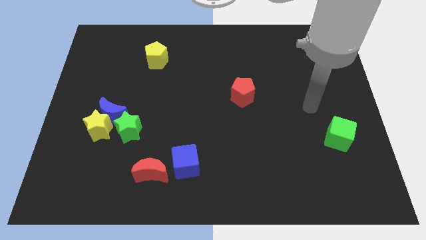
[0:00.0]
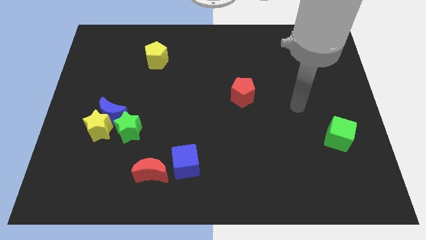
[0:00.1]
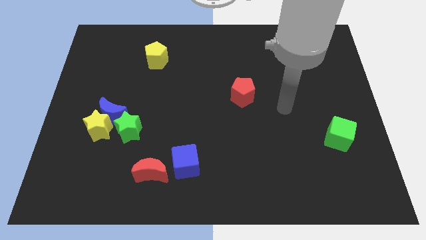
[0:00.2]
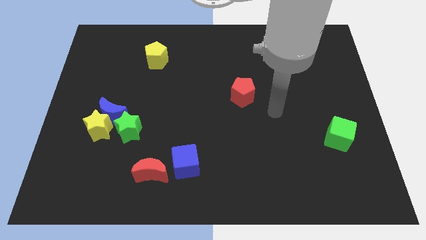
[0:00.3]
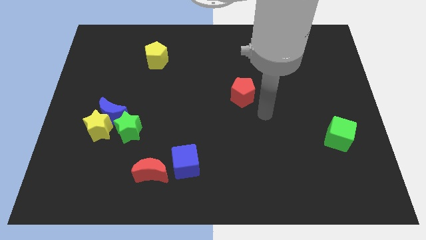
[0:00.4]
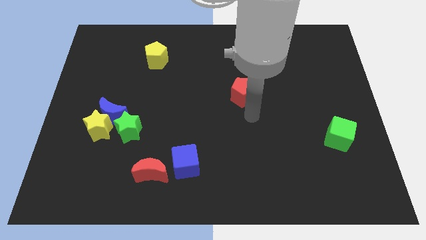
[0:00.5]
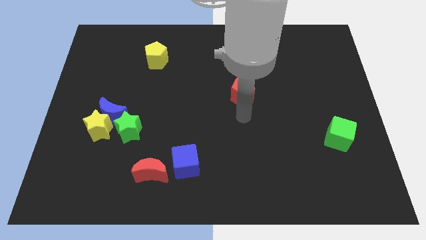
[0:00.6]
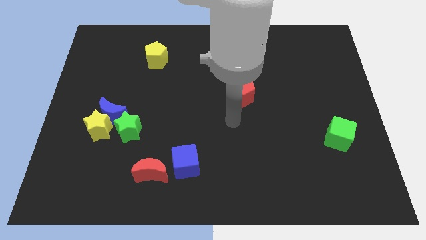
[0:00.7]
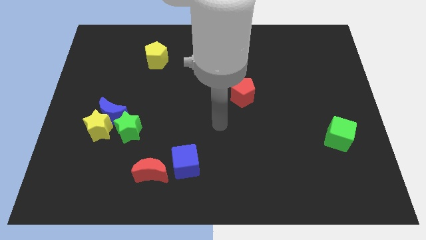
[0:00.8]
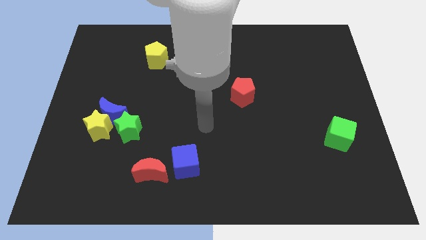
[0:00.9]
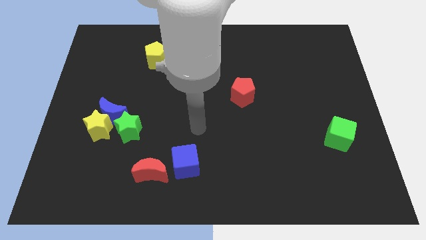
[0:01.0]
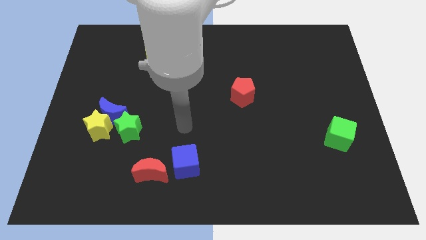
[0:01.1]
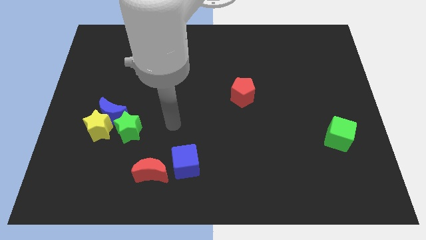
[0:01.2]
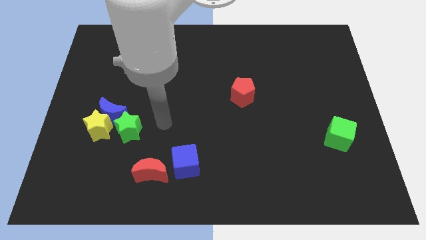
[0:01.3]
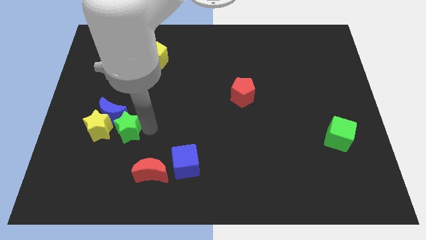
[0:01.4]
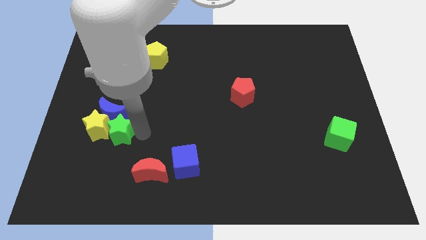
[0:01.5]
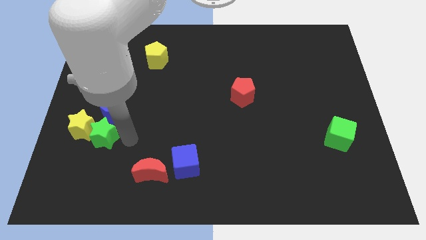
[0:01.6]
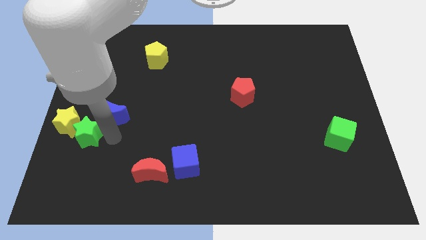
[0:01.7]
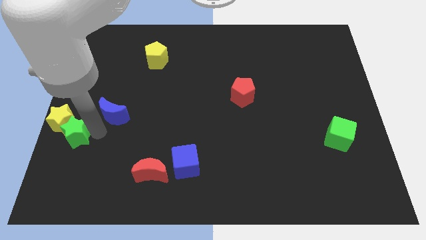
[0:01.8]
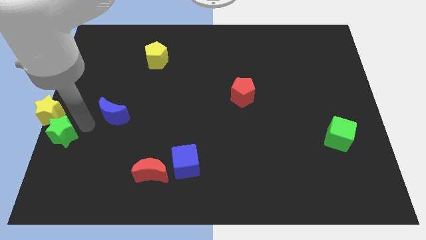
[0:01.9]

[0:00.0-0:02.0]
separate the blue moon from the yellow star and green star

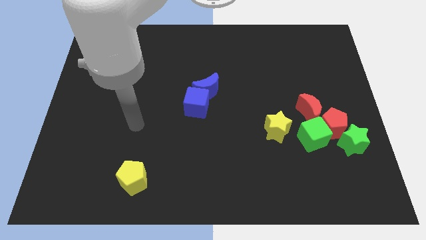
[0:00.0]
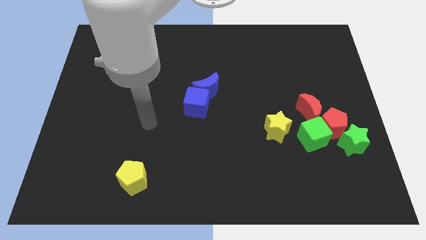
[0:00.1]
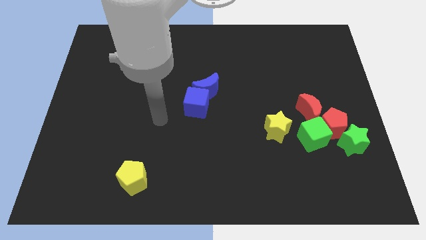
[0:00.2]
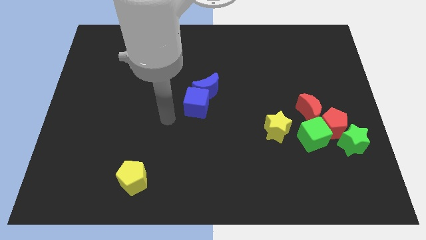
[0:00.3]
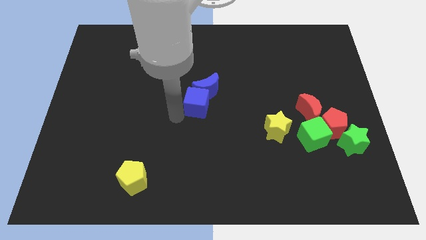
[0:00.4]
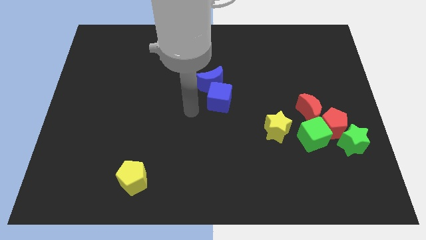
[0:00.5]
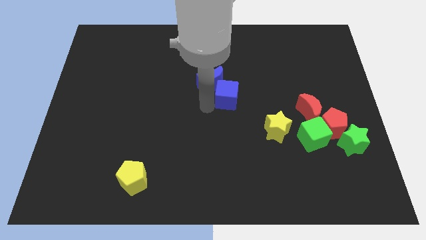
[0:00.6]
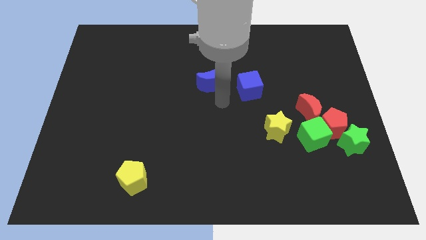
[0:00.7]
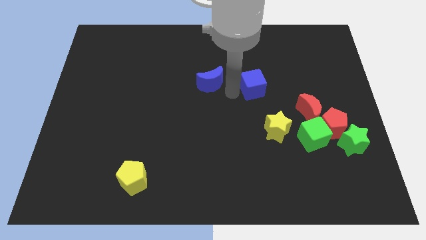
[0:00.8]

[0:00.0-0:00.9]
pull the blue moon apart from the blue cube

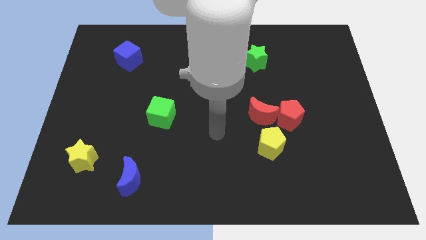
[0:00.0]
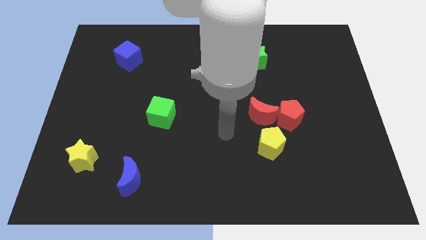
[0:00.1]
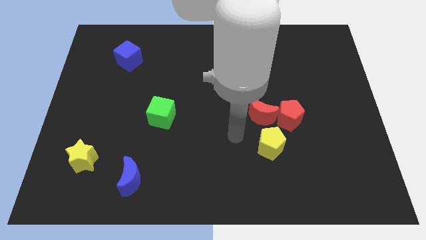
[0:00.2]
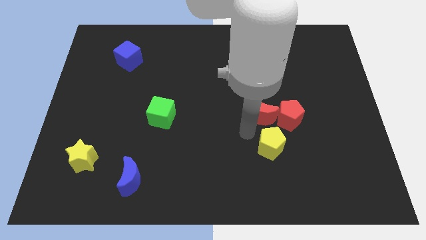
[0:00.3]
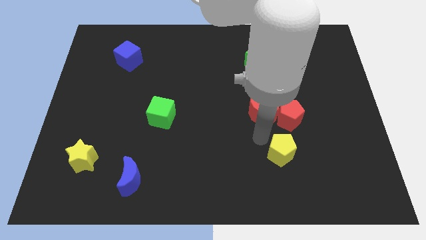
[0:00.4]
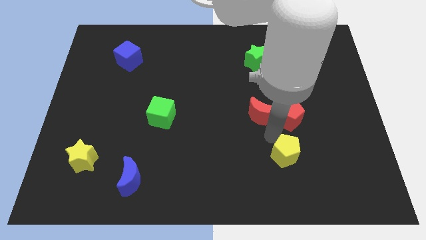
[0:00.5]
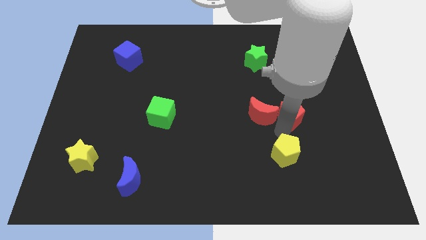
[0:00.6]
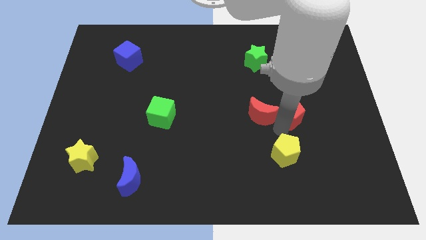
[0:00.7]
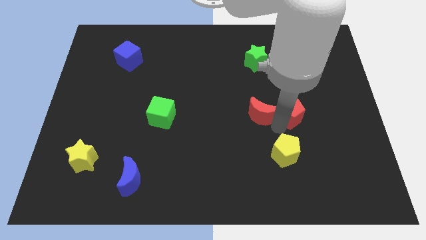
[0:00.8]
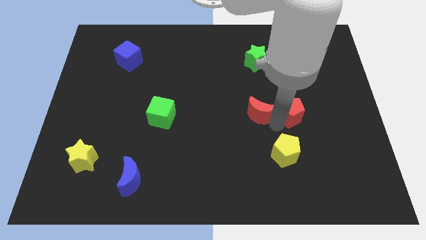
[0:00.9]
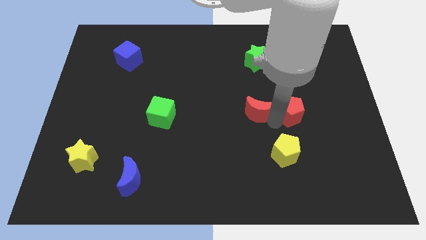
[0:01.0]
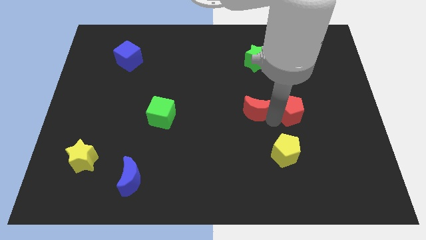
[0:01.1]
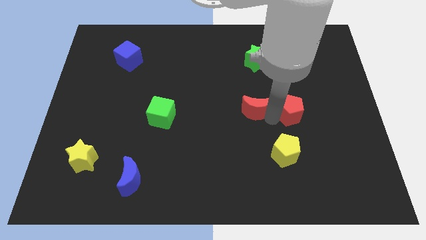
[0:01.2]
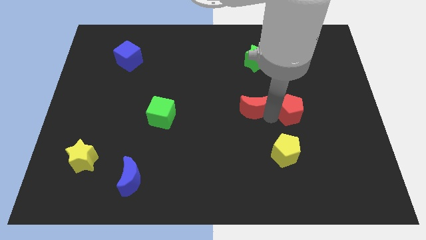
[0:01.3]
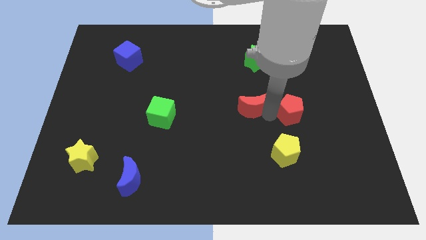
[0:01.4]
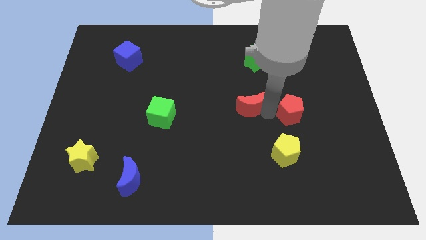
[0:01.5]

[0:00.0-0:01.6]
pull the red moon apart from the red pentagon and yellow pentagon

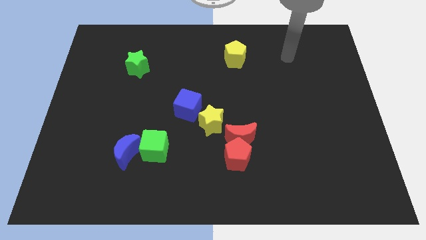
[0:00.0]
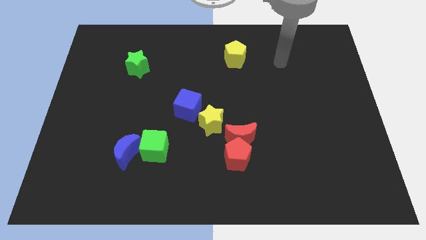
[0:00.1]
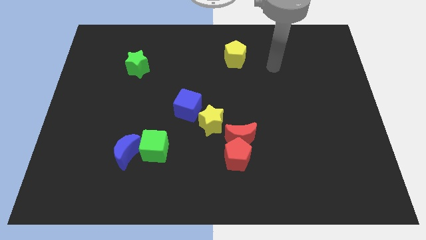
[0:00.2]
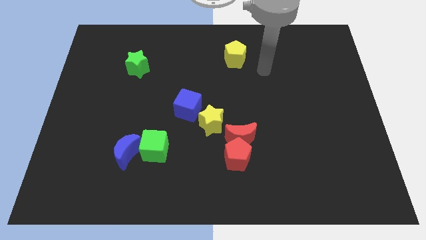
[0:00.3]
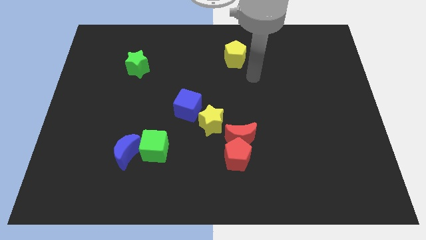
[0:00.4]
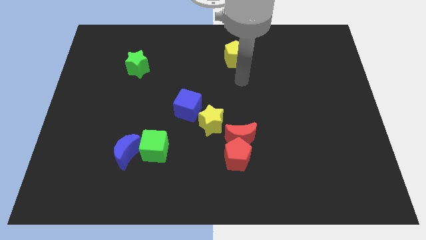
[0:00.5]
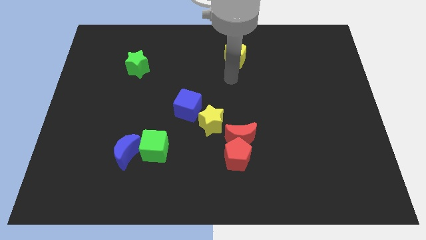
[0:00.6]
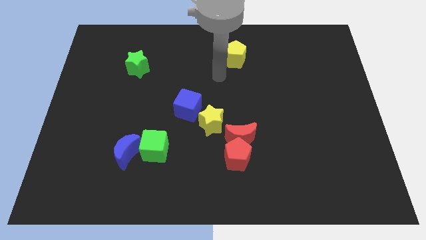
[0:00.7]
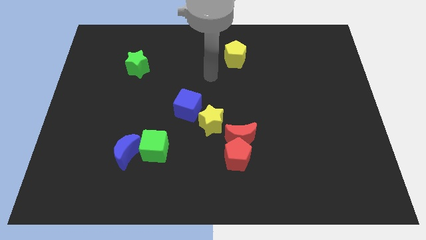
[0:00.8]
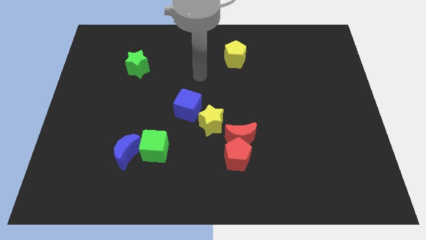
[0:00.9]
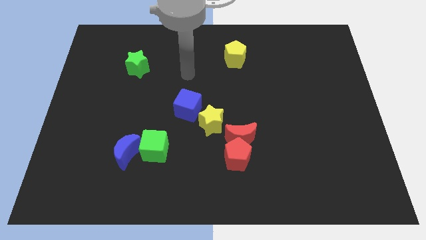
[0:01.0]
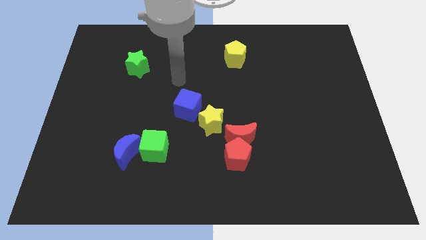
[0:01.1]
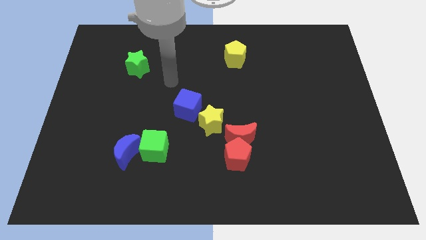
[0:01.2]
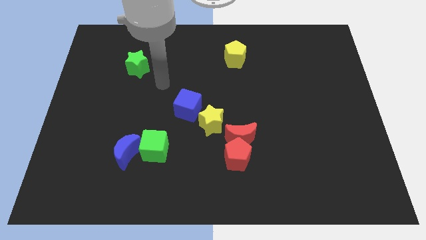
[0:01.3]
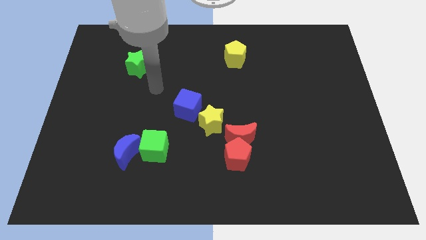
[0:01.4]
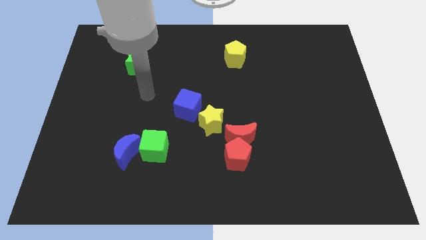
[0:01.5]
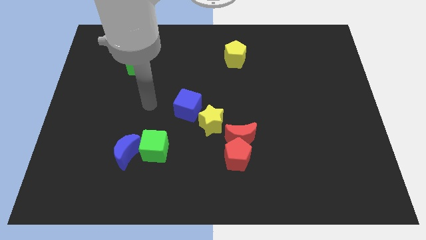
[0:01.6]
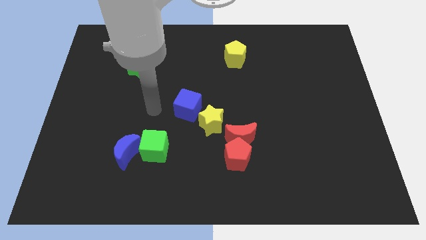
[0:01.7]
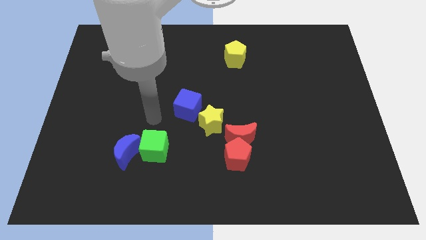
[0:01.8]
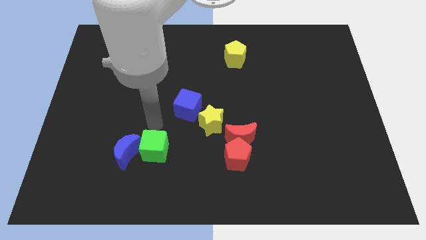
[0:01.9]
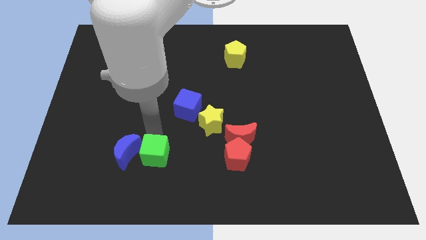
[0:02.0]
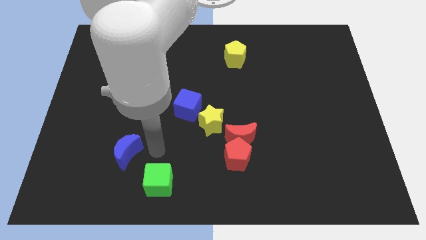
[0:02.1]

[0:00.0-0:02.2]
move the blue moon away from the green cube

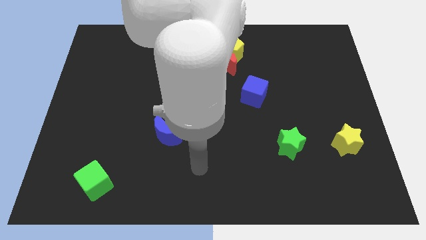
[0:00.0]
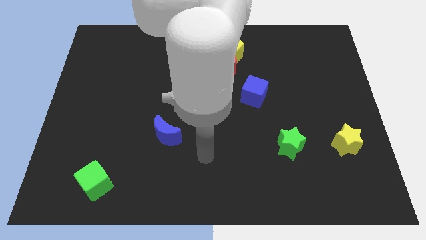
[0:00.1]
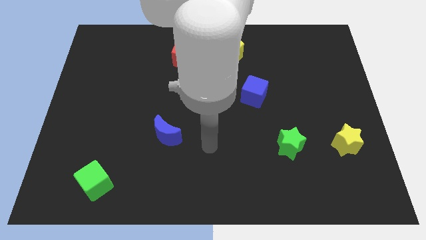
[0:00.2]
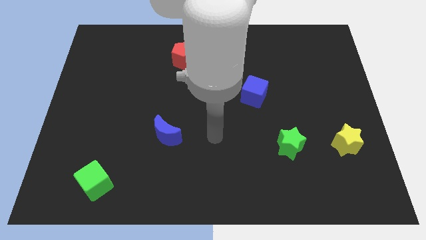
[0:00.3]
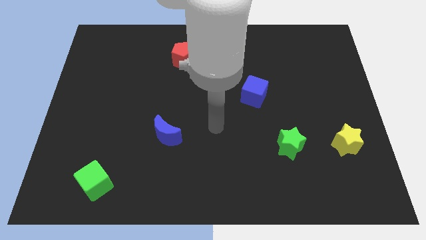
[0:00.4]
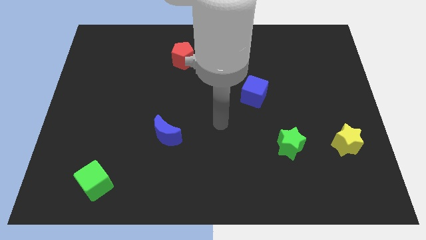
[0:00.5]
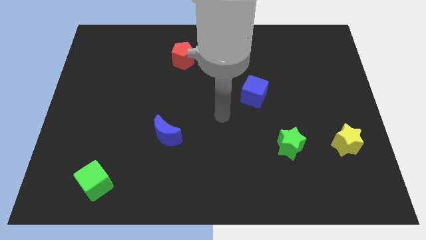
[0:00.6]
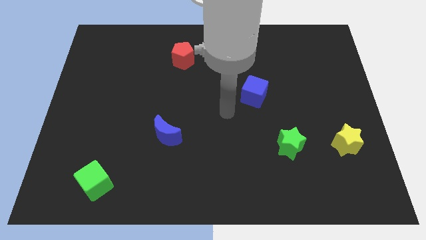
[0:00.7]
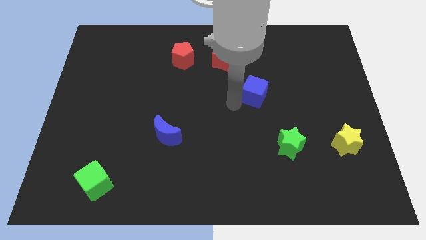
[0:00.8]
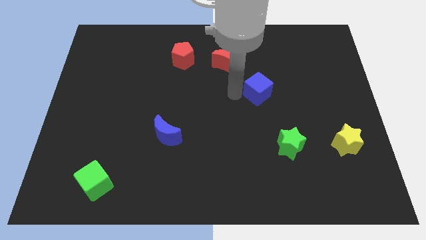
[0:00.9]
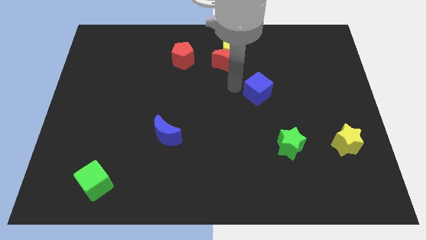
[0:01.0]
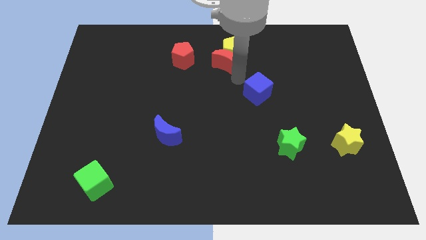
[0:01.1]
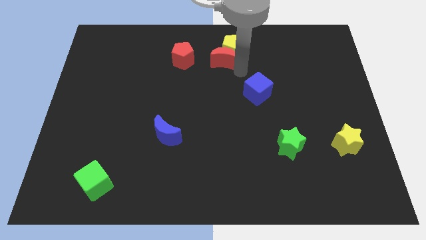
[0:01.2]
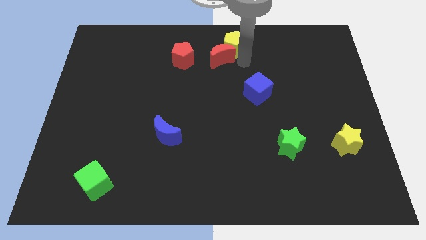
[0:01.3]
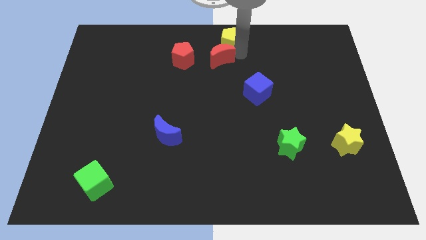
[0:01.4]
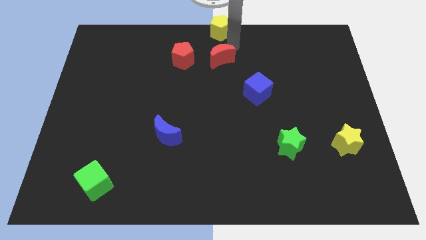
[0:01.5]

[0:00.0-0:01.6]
move the red moon away from the yellow pentagon

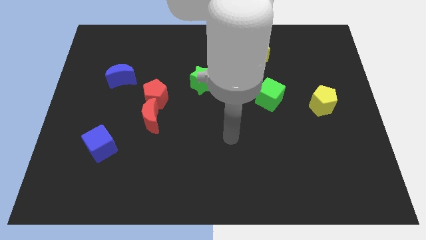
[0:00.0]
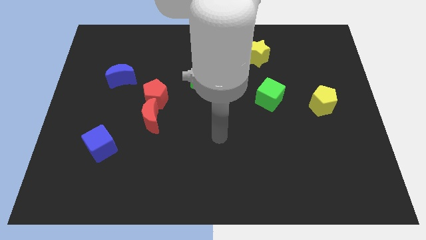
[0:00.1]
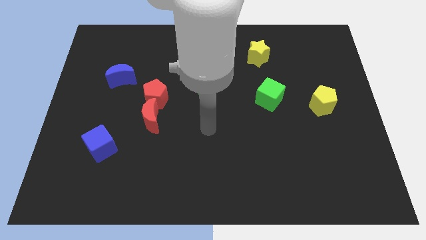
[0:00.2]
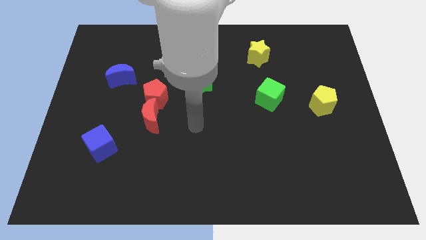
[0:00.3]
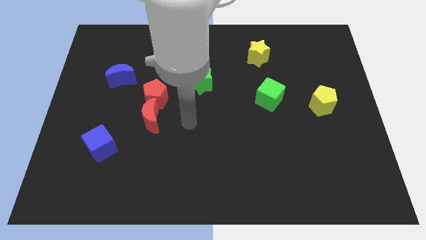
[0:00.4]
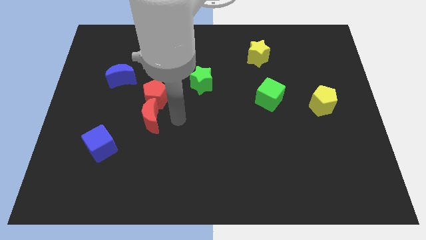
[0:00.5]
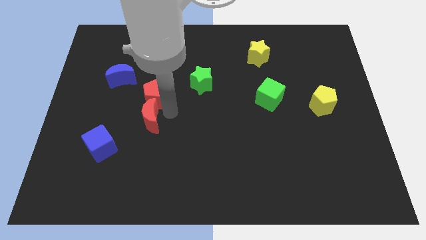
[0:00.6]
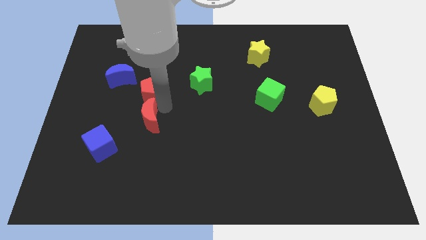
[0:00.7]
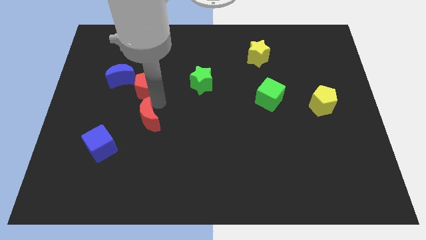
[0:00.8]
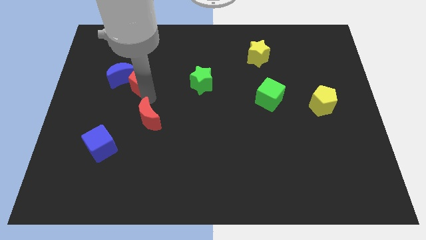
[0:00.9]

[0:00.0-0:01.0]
move the red moon away from the red pentagon
